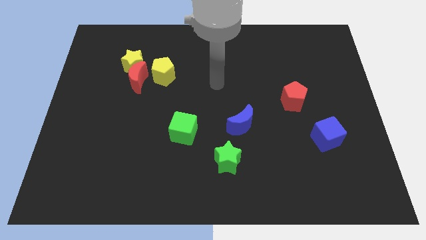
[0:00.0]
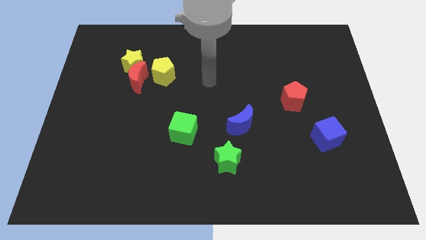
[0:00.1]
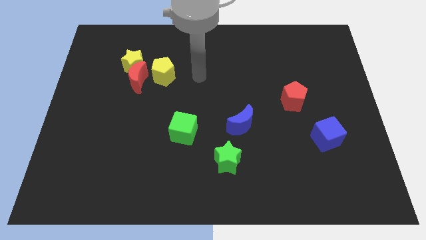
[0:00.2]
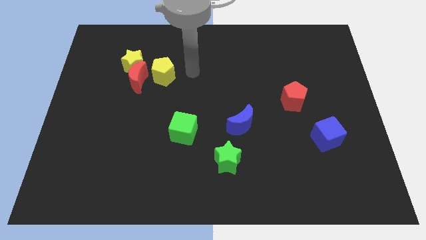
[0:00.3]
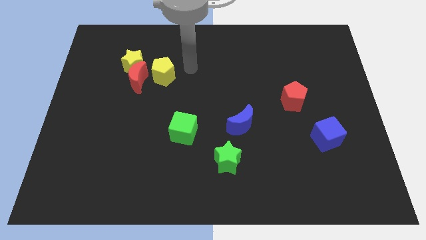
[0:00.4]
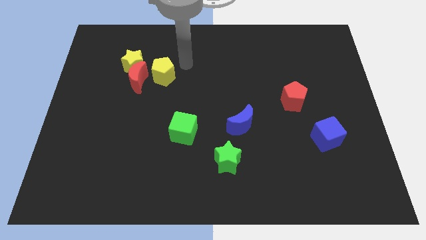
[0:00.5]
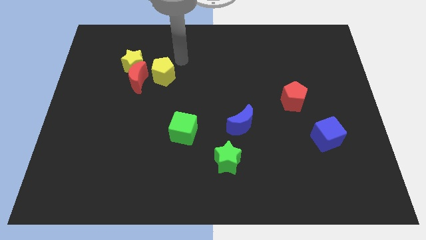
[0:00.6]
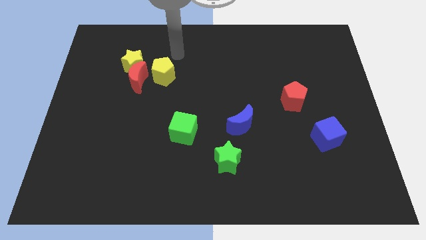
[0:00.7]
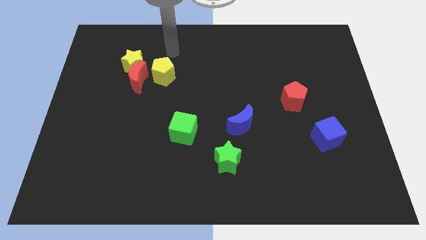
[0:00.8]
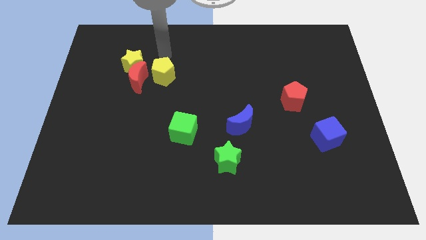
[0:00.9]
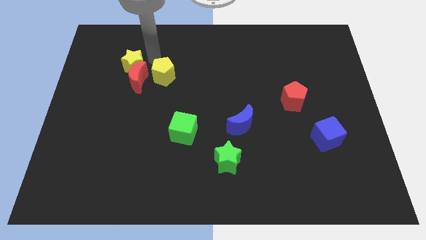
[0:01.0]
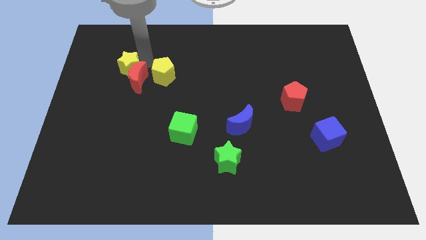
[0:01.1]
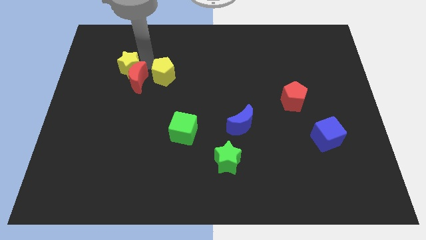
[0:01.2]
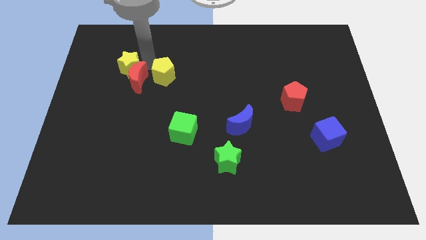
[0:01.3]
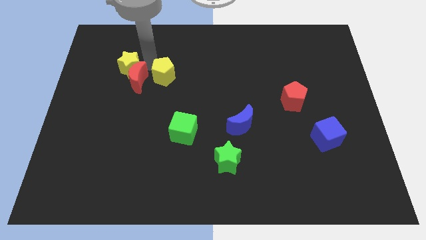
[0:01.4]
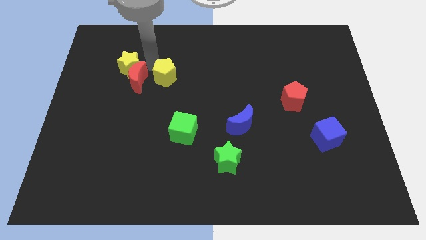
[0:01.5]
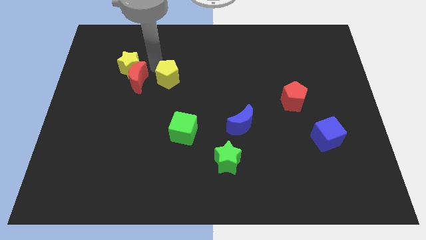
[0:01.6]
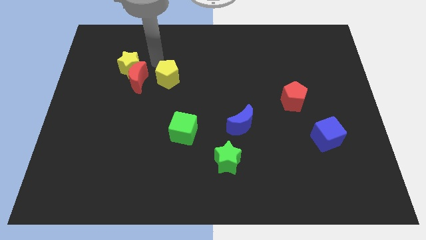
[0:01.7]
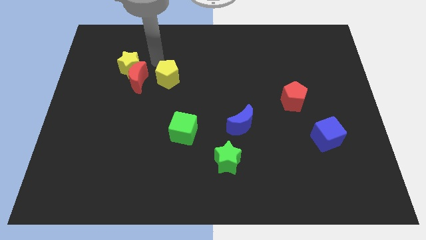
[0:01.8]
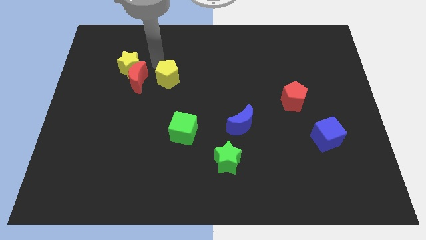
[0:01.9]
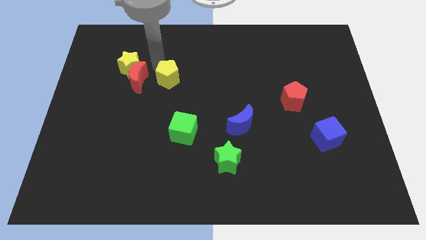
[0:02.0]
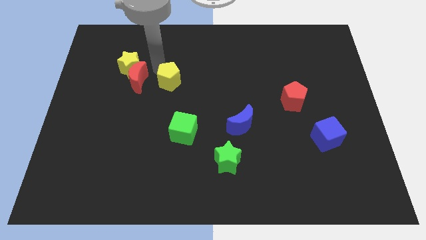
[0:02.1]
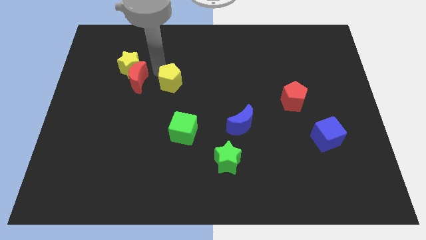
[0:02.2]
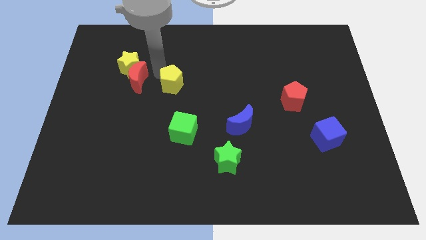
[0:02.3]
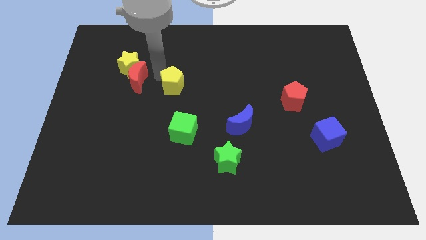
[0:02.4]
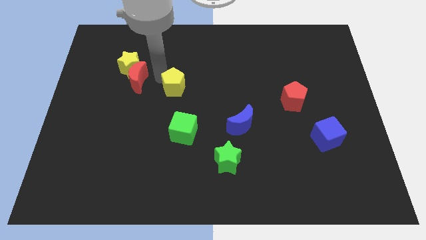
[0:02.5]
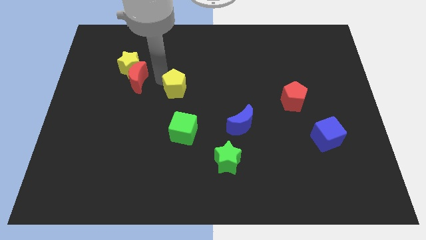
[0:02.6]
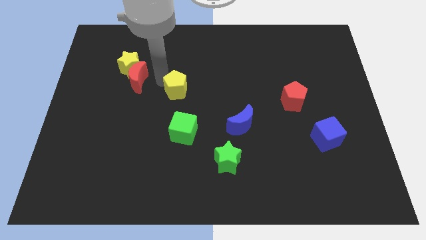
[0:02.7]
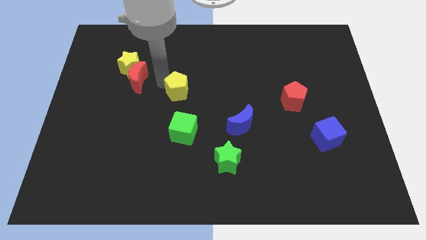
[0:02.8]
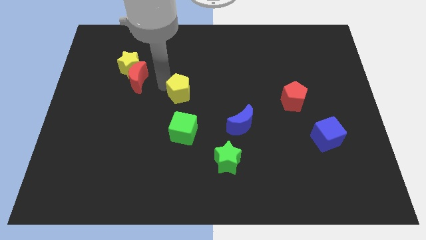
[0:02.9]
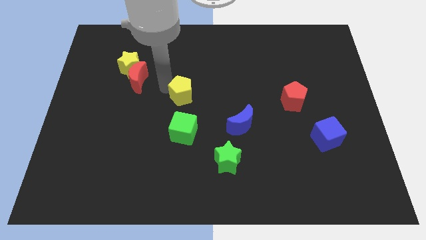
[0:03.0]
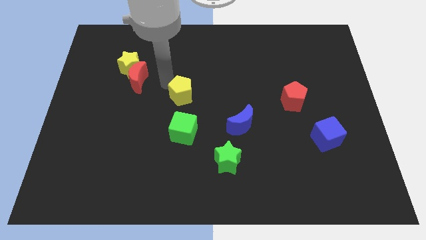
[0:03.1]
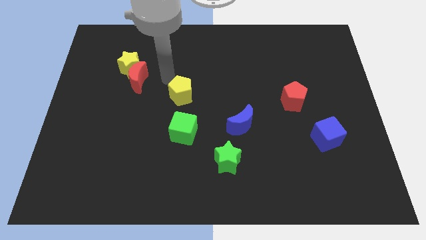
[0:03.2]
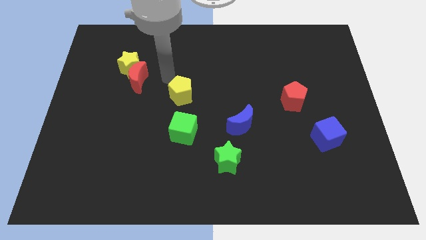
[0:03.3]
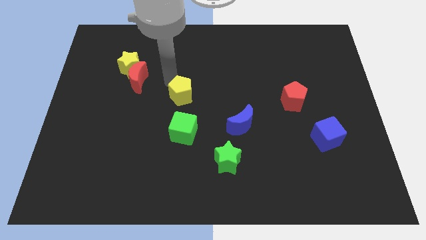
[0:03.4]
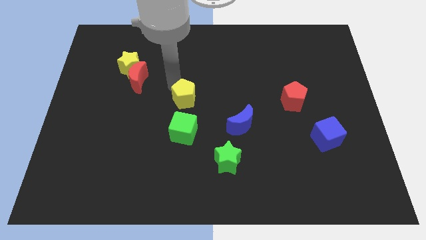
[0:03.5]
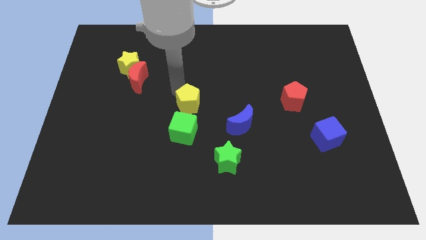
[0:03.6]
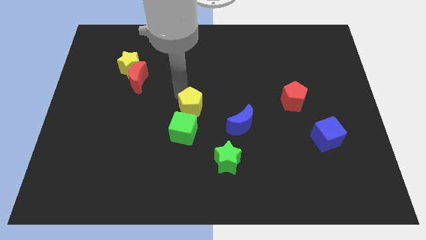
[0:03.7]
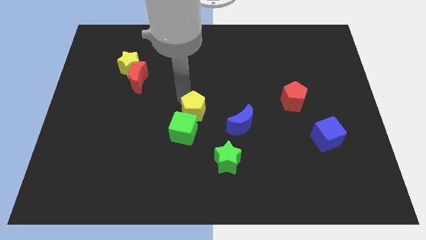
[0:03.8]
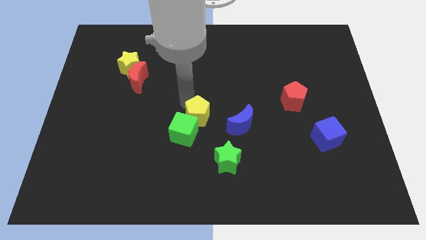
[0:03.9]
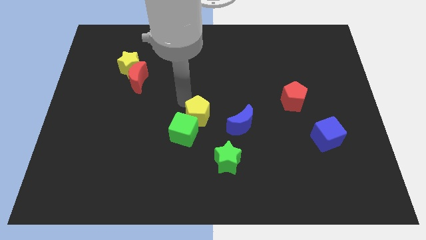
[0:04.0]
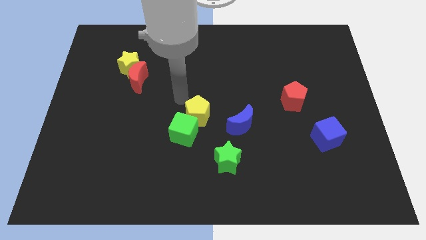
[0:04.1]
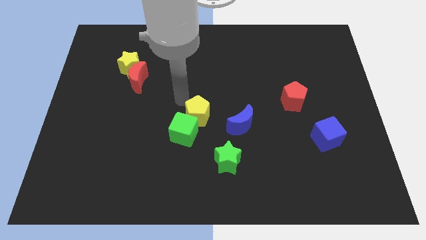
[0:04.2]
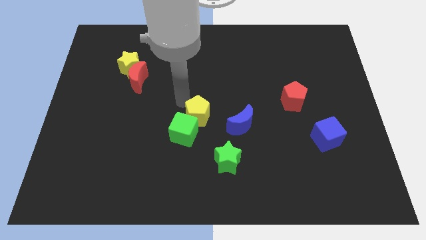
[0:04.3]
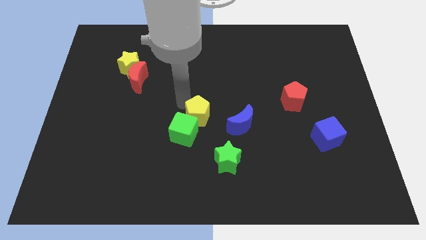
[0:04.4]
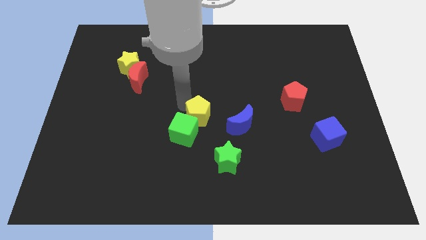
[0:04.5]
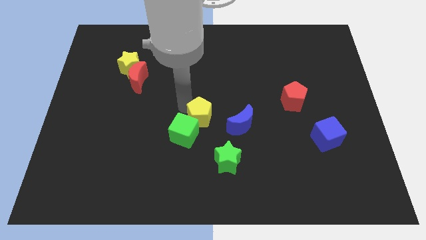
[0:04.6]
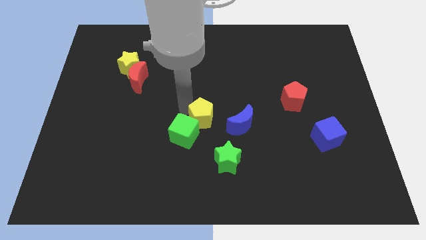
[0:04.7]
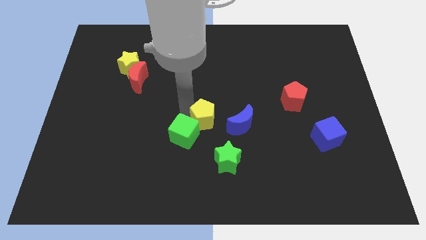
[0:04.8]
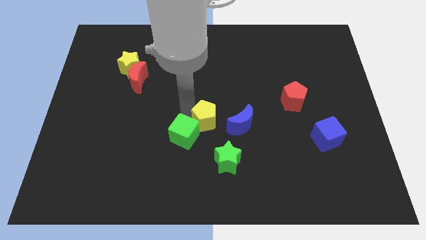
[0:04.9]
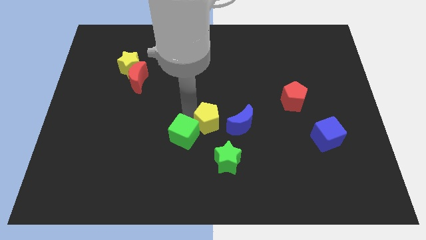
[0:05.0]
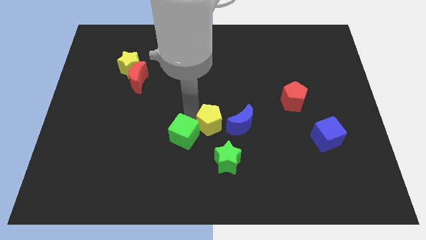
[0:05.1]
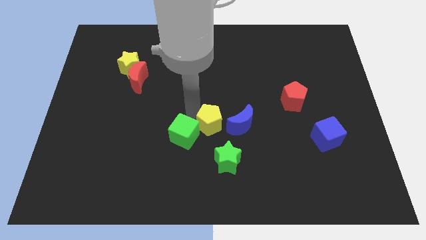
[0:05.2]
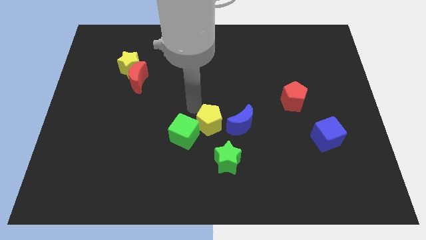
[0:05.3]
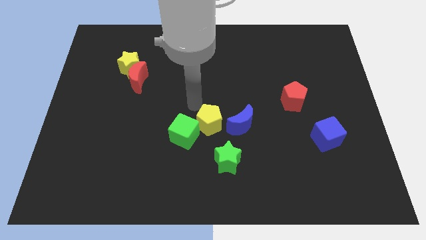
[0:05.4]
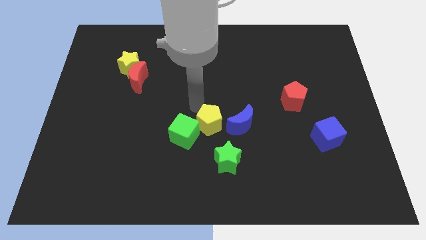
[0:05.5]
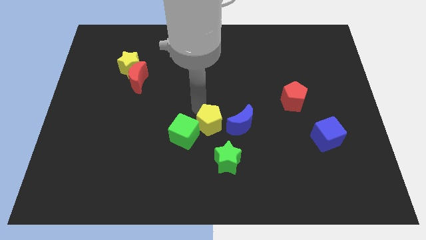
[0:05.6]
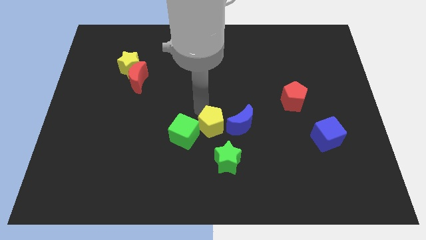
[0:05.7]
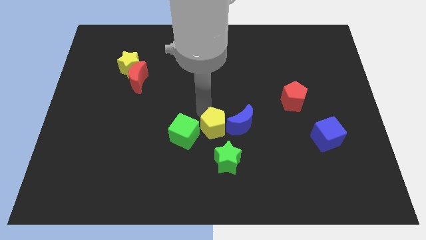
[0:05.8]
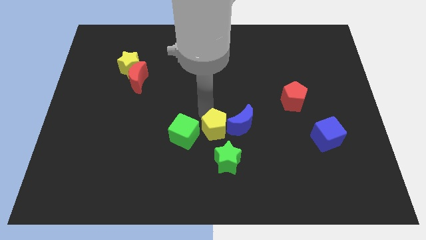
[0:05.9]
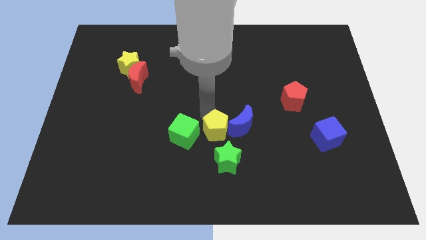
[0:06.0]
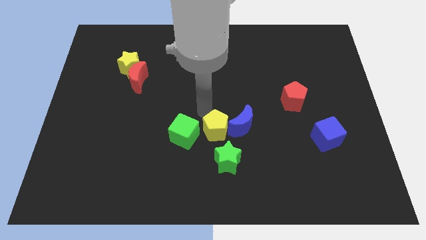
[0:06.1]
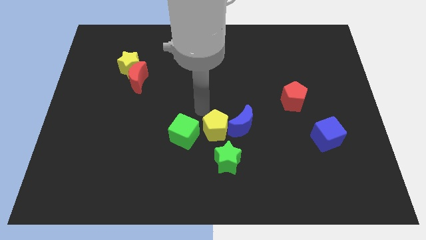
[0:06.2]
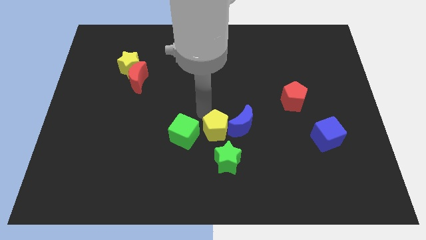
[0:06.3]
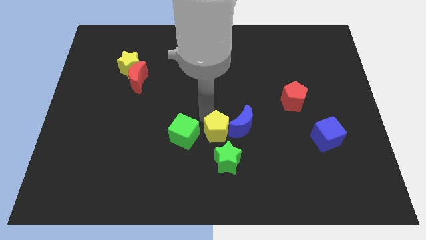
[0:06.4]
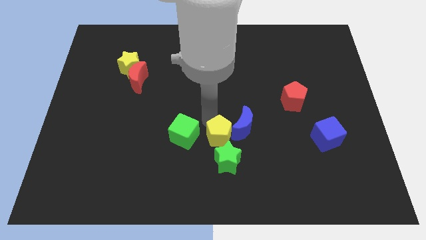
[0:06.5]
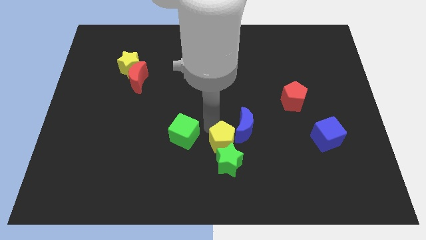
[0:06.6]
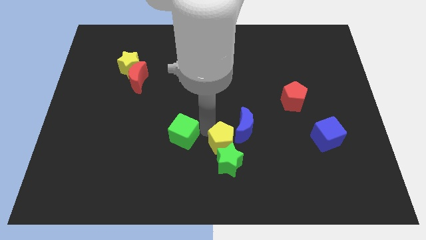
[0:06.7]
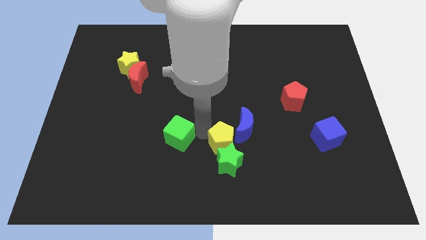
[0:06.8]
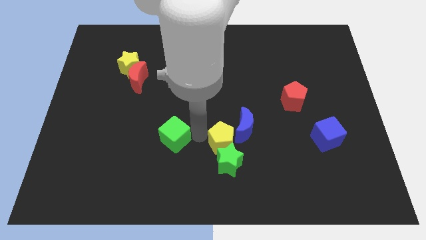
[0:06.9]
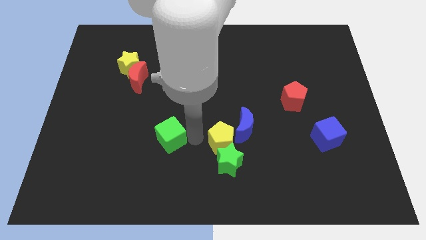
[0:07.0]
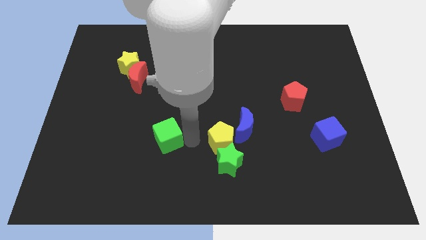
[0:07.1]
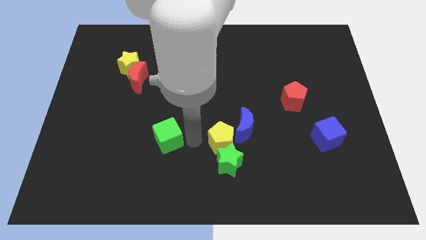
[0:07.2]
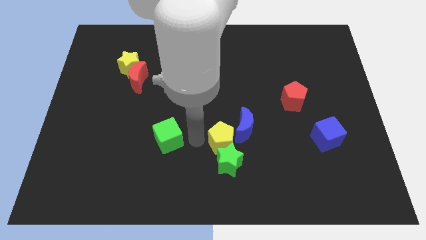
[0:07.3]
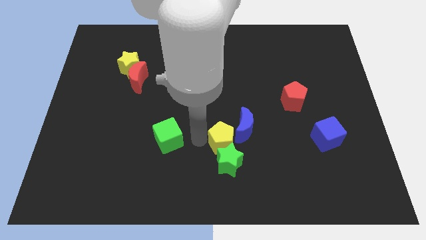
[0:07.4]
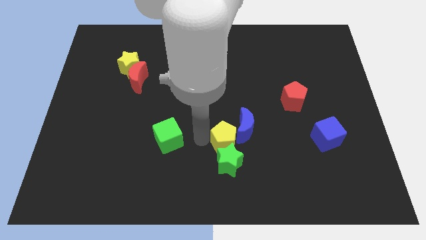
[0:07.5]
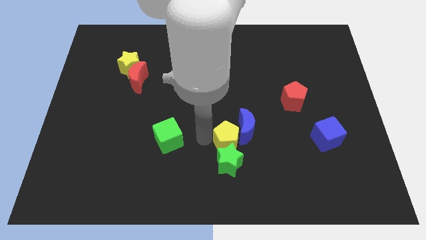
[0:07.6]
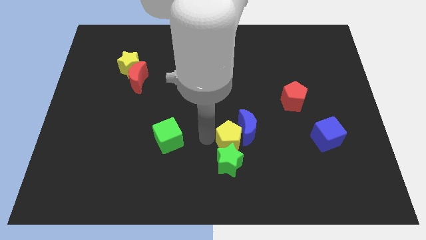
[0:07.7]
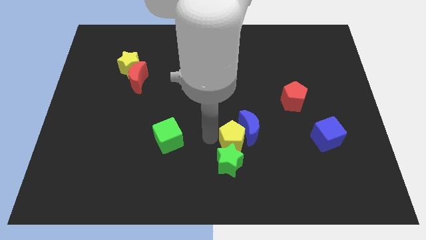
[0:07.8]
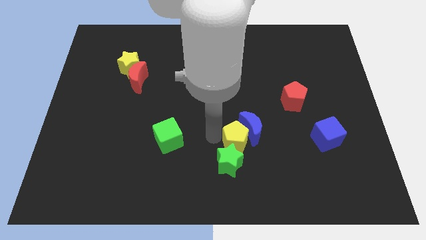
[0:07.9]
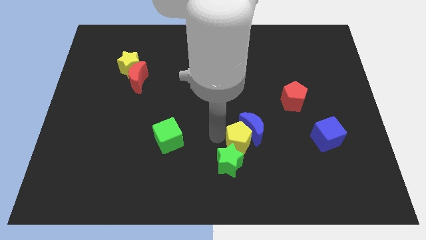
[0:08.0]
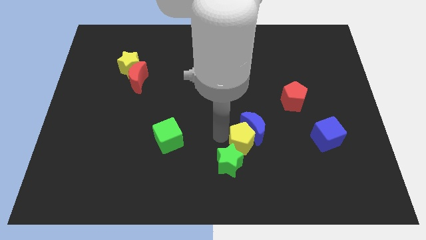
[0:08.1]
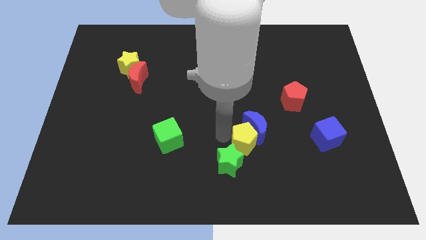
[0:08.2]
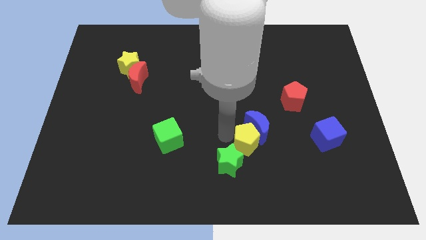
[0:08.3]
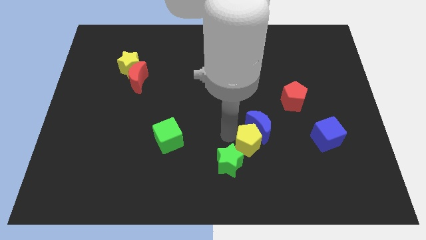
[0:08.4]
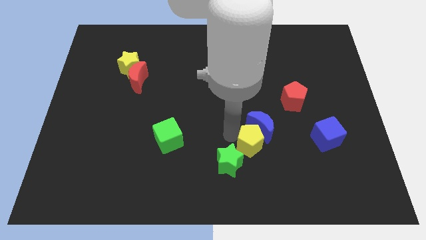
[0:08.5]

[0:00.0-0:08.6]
move the yellow pentagon to the right of the green star
